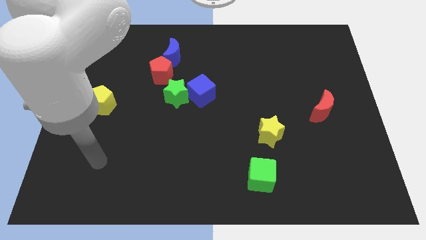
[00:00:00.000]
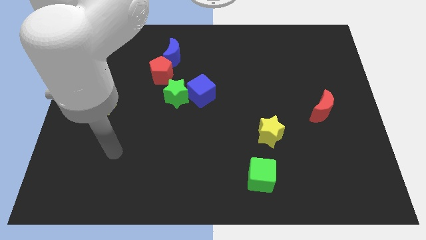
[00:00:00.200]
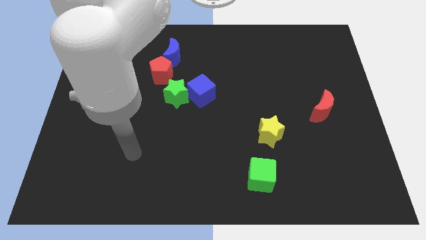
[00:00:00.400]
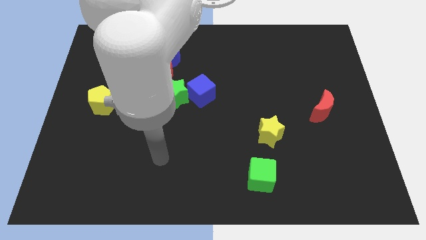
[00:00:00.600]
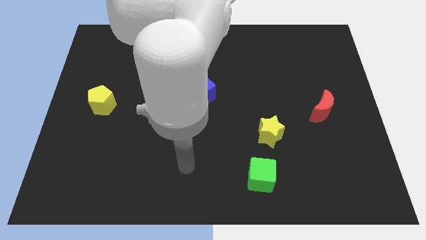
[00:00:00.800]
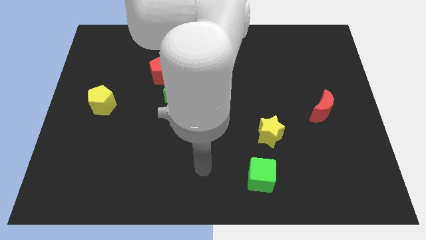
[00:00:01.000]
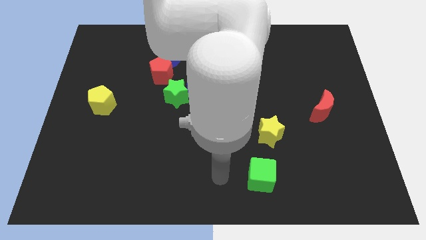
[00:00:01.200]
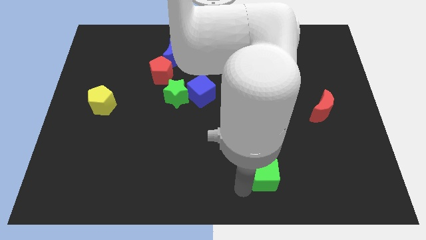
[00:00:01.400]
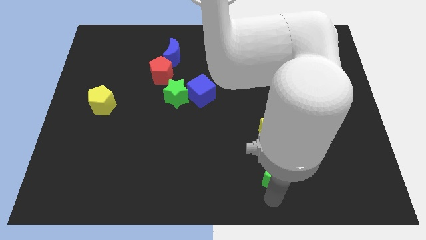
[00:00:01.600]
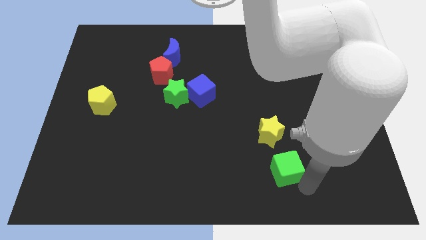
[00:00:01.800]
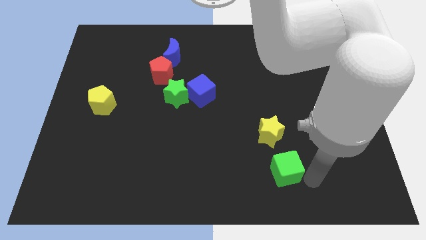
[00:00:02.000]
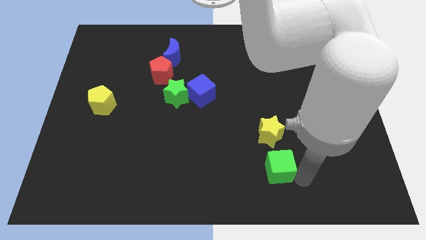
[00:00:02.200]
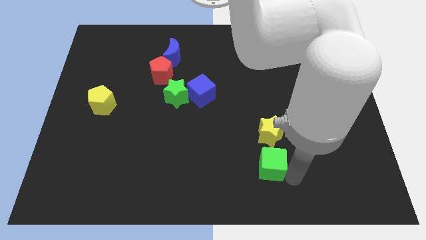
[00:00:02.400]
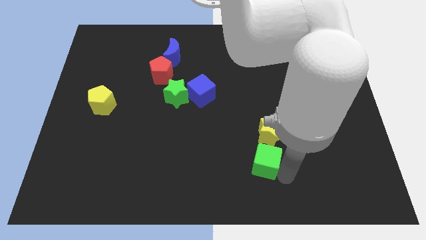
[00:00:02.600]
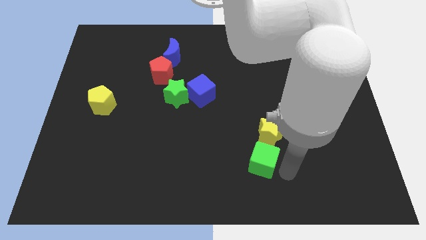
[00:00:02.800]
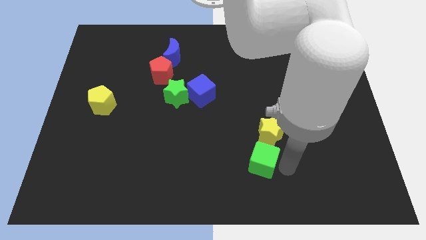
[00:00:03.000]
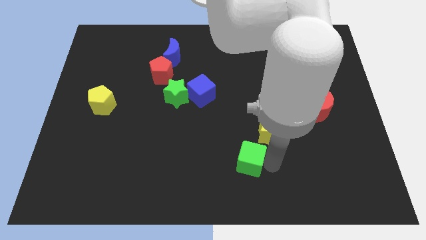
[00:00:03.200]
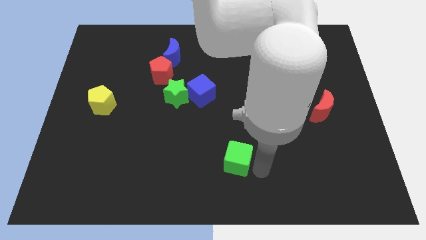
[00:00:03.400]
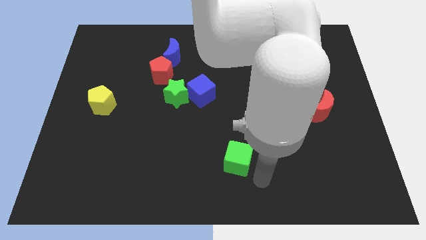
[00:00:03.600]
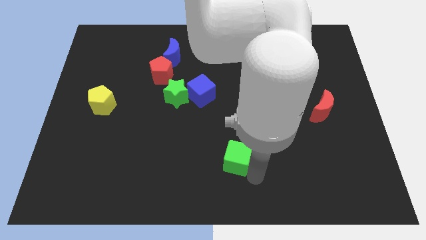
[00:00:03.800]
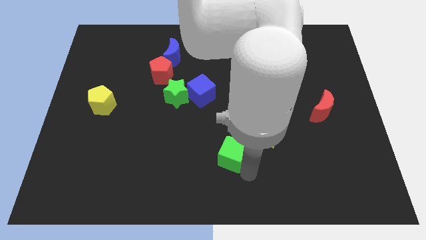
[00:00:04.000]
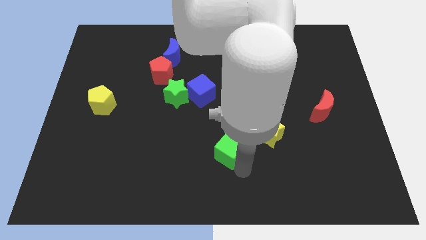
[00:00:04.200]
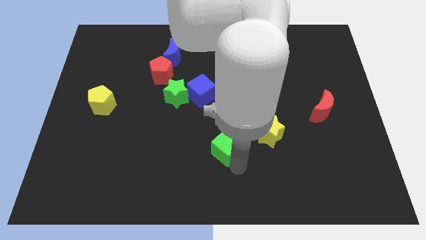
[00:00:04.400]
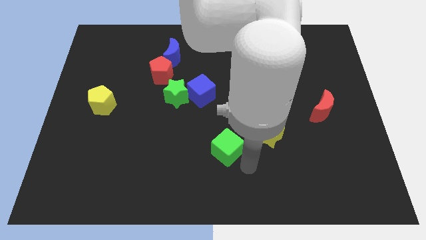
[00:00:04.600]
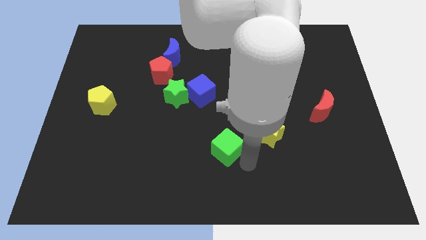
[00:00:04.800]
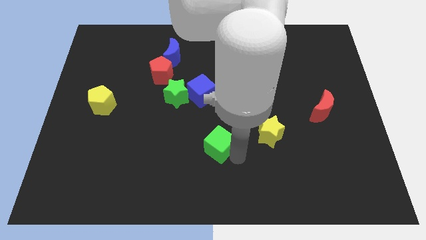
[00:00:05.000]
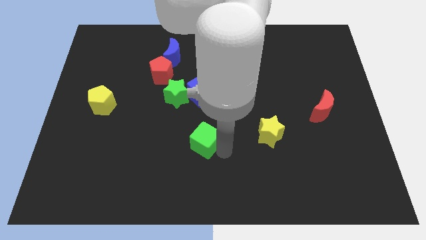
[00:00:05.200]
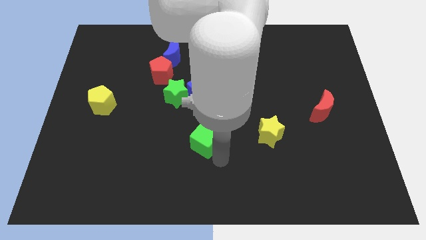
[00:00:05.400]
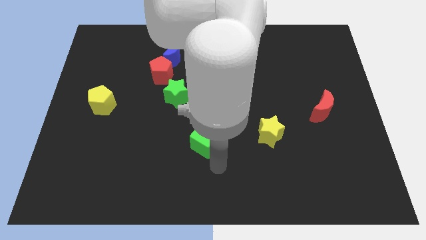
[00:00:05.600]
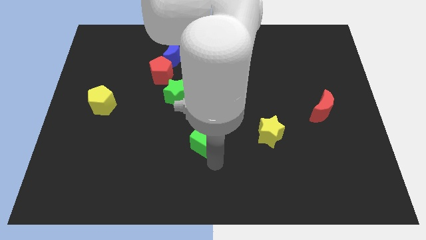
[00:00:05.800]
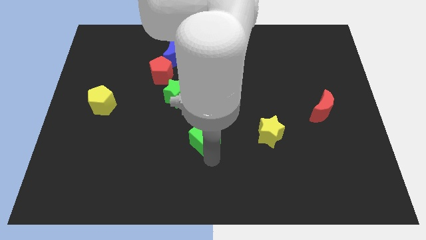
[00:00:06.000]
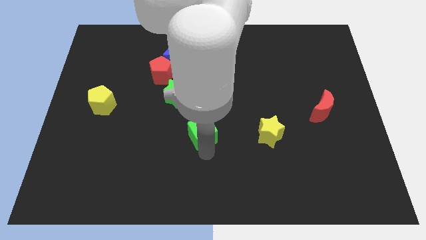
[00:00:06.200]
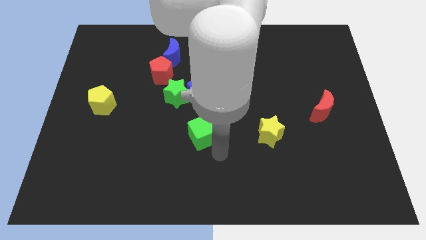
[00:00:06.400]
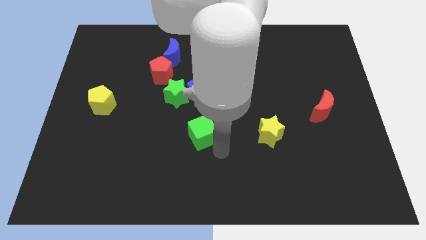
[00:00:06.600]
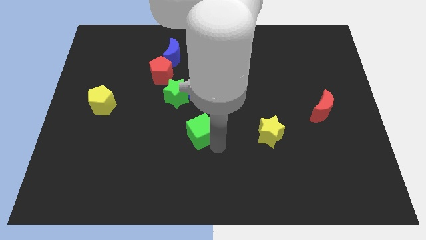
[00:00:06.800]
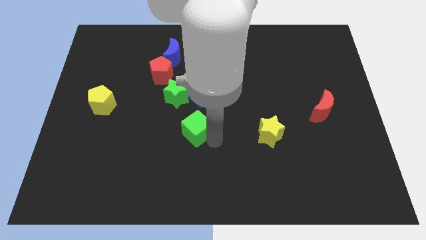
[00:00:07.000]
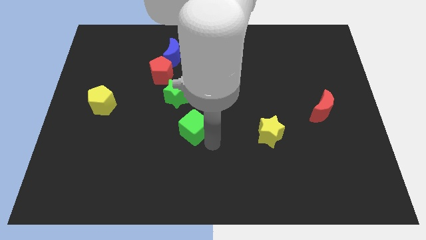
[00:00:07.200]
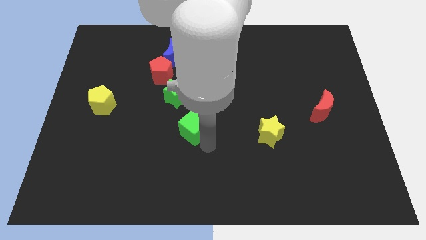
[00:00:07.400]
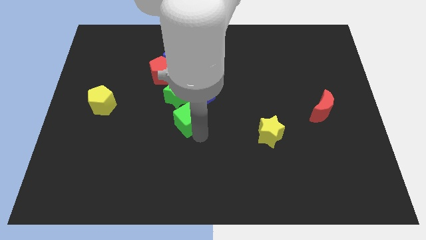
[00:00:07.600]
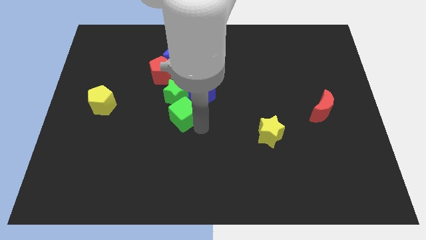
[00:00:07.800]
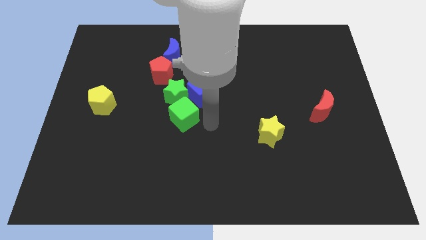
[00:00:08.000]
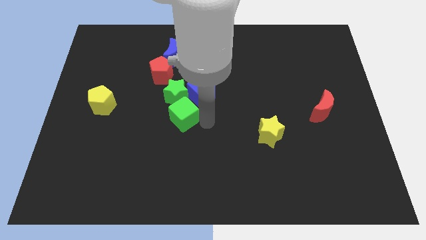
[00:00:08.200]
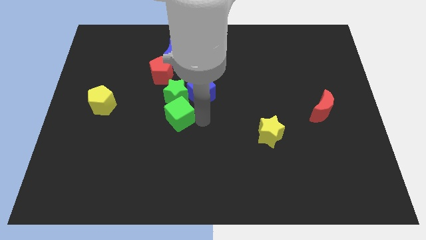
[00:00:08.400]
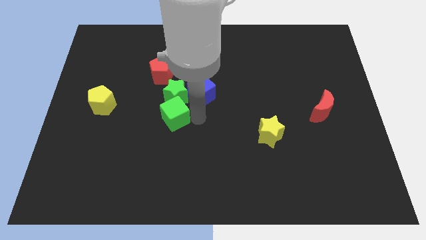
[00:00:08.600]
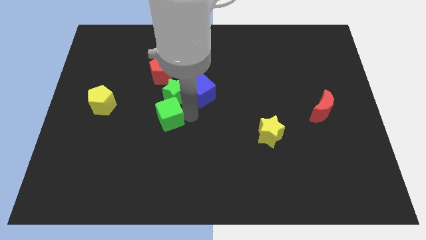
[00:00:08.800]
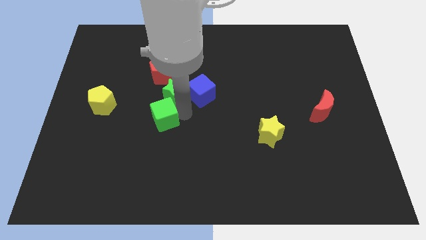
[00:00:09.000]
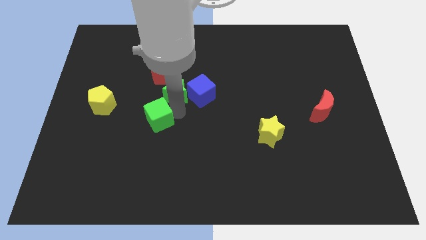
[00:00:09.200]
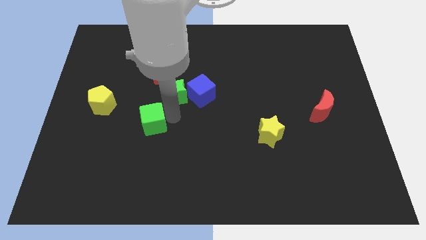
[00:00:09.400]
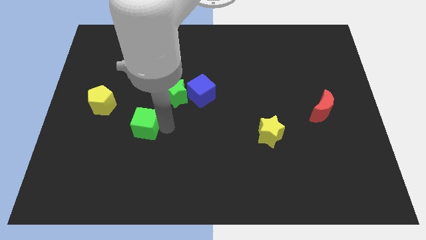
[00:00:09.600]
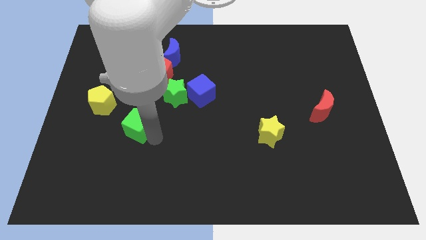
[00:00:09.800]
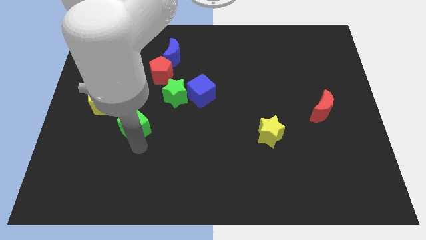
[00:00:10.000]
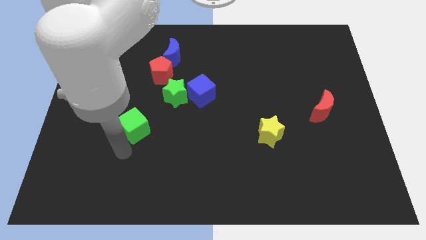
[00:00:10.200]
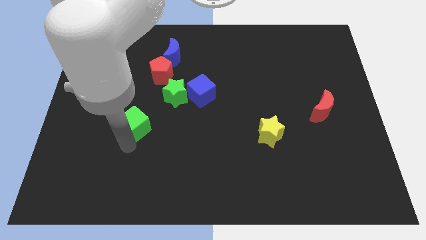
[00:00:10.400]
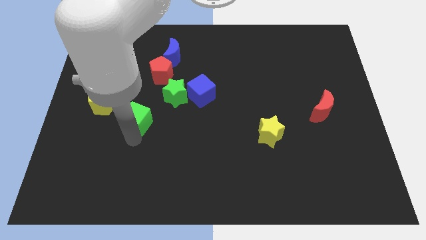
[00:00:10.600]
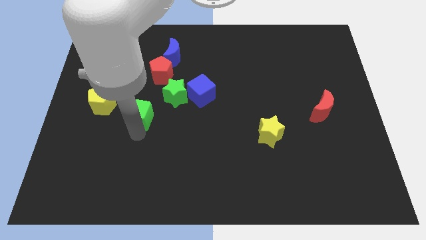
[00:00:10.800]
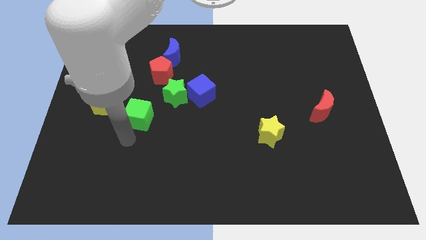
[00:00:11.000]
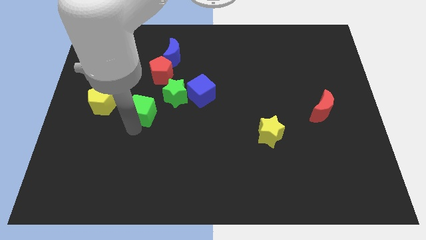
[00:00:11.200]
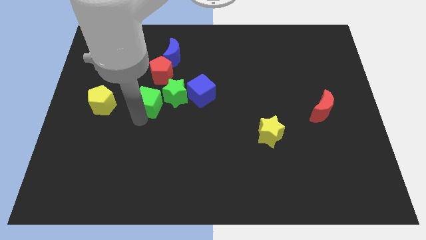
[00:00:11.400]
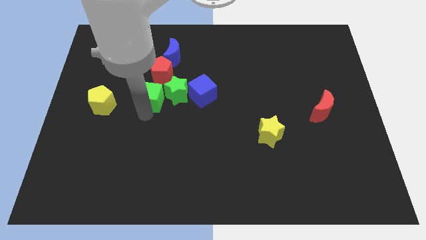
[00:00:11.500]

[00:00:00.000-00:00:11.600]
push the green cube diagonally down and to the left of the red pentagon

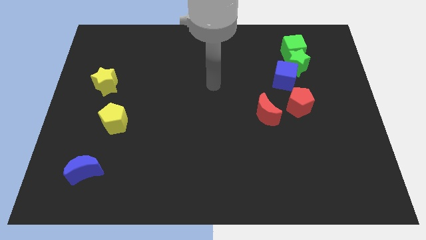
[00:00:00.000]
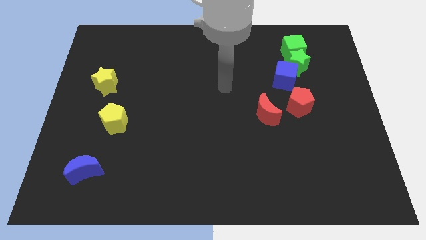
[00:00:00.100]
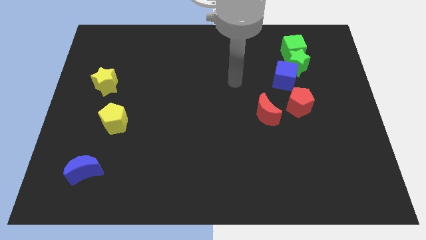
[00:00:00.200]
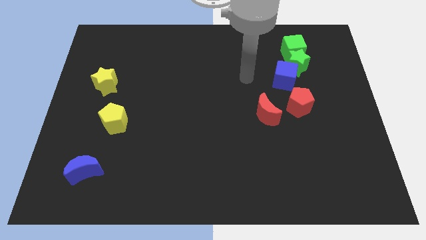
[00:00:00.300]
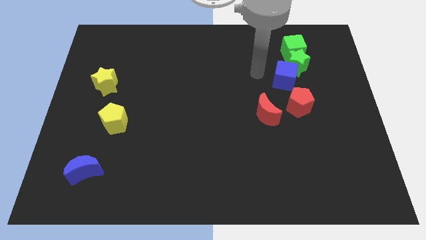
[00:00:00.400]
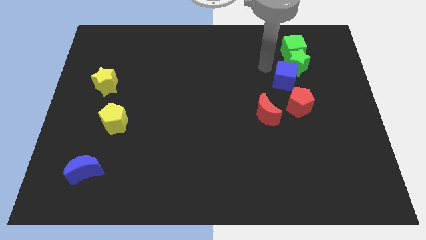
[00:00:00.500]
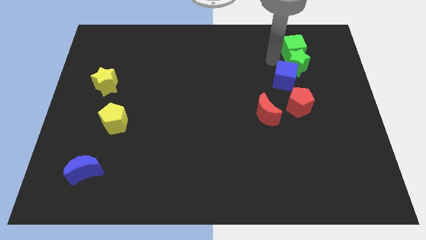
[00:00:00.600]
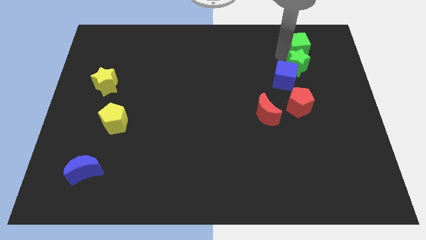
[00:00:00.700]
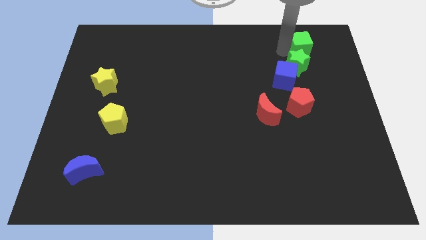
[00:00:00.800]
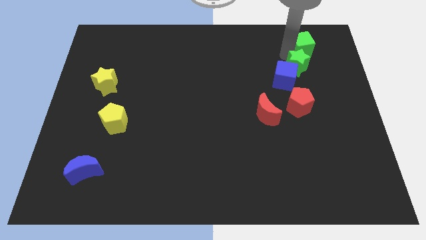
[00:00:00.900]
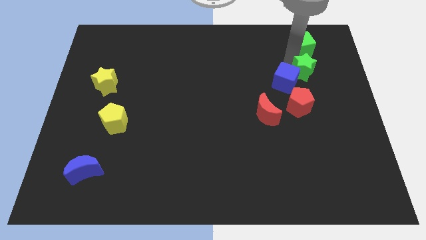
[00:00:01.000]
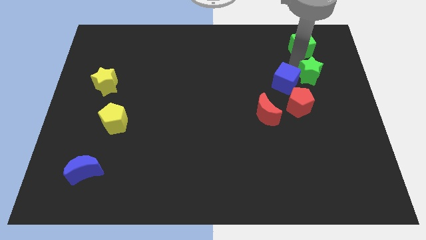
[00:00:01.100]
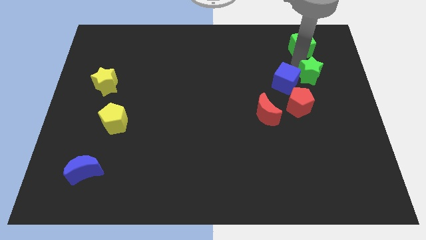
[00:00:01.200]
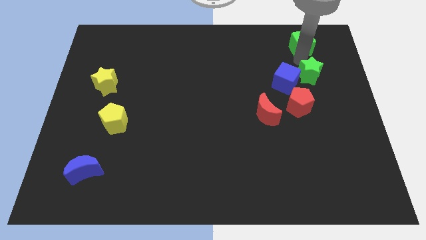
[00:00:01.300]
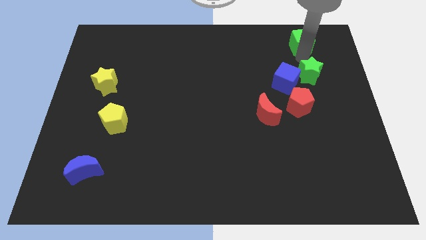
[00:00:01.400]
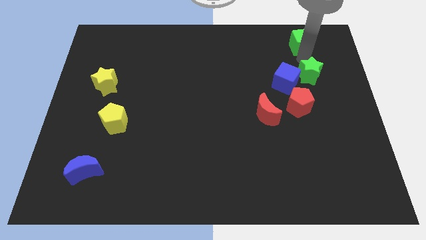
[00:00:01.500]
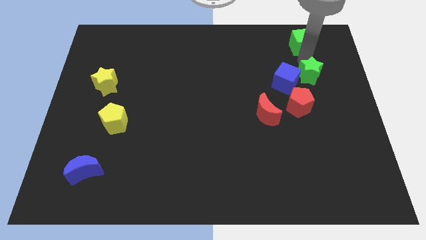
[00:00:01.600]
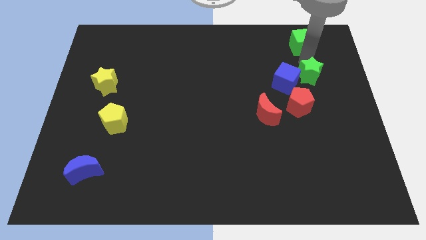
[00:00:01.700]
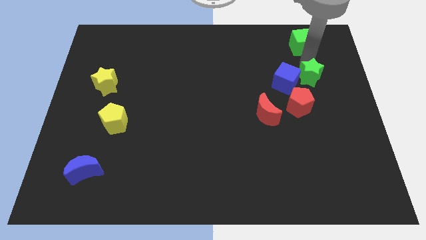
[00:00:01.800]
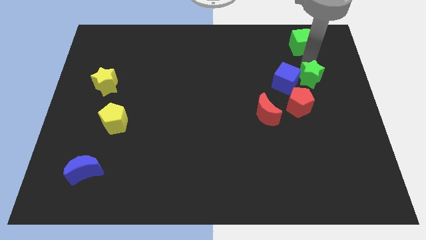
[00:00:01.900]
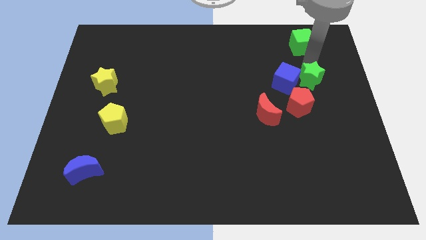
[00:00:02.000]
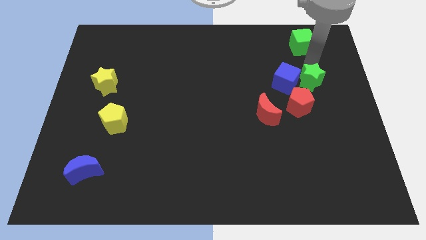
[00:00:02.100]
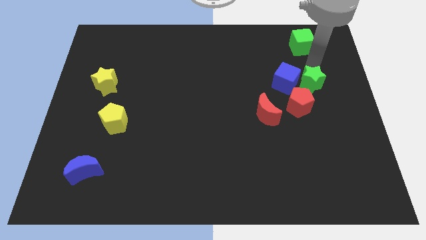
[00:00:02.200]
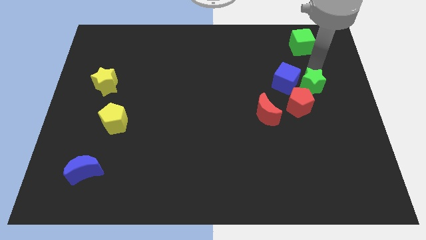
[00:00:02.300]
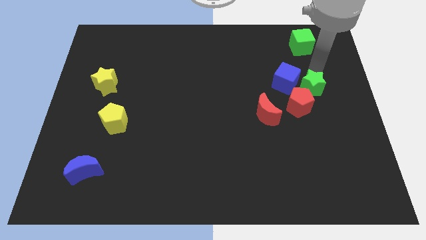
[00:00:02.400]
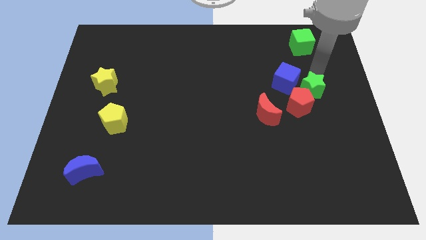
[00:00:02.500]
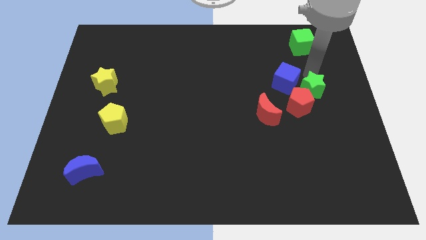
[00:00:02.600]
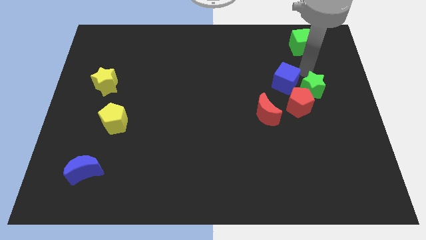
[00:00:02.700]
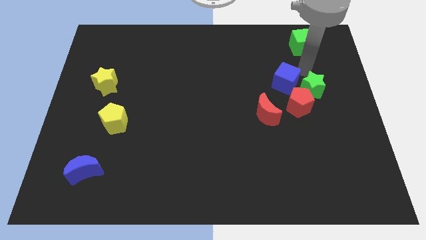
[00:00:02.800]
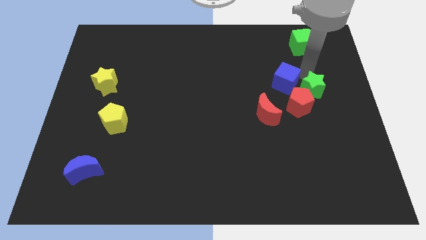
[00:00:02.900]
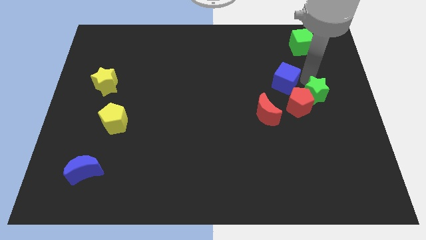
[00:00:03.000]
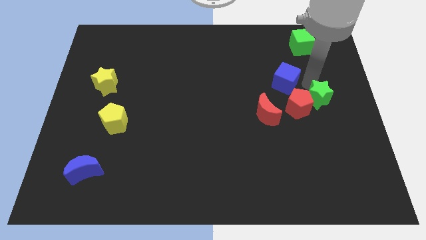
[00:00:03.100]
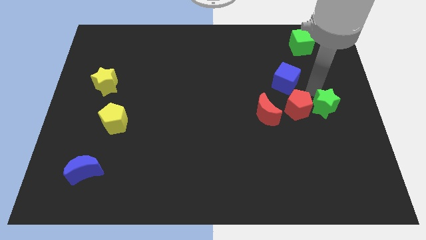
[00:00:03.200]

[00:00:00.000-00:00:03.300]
slide the green star to the bottom right of the red pentagon
